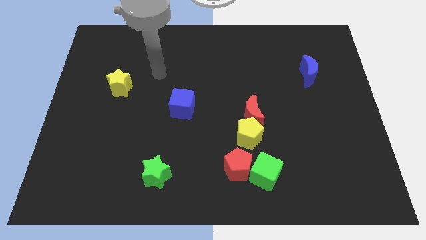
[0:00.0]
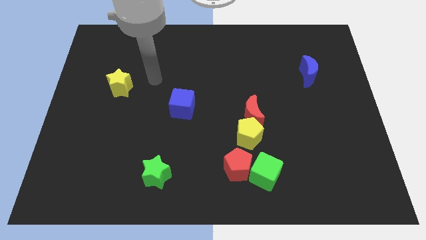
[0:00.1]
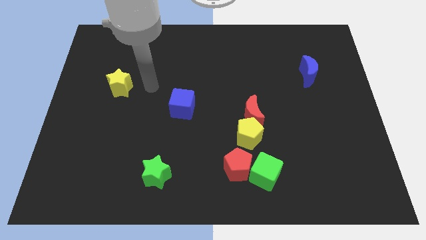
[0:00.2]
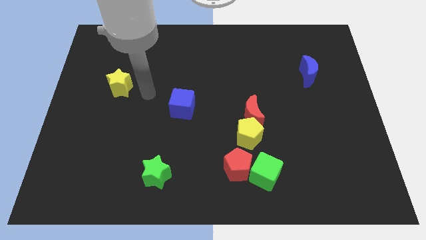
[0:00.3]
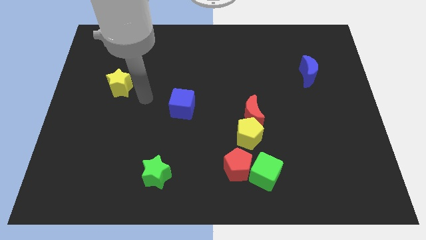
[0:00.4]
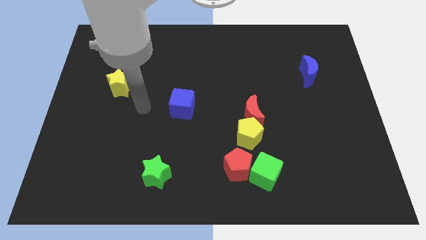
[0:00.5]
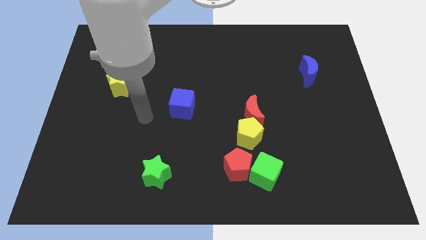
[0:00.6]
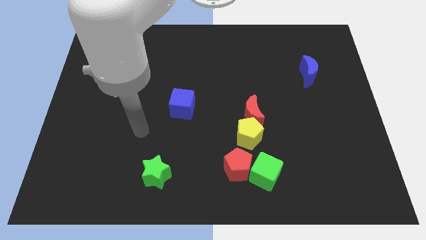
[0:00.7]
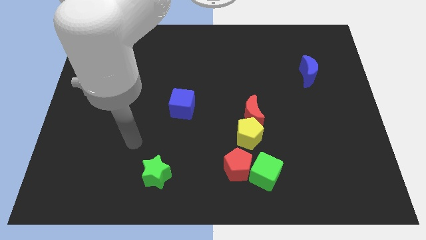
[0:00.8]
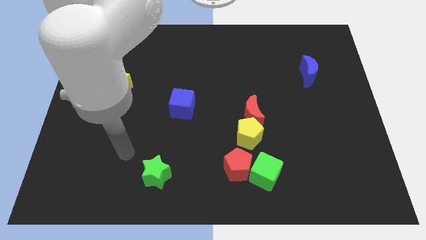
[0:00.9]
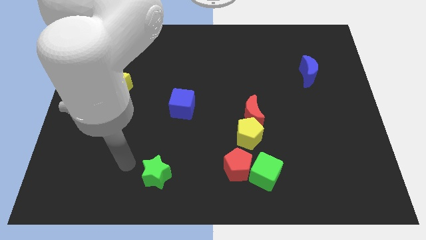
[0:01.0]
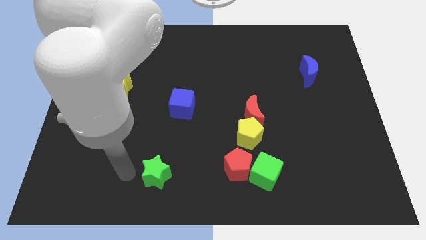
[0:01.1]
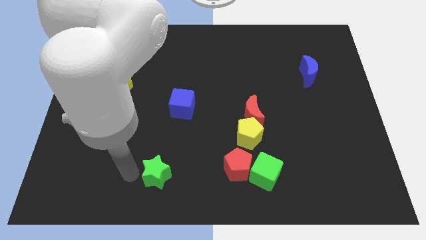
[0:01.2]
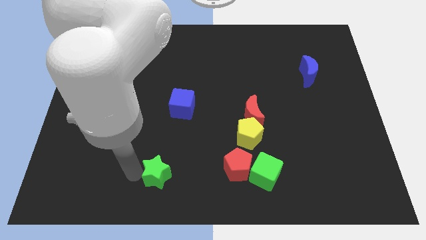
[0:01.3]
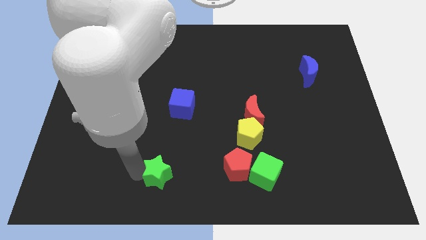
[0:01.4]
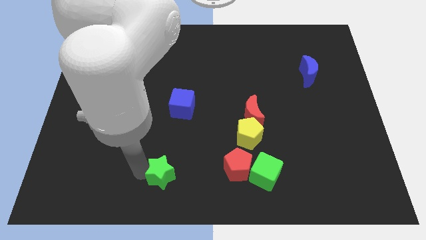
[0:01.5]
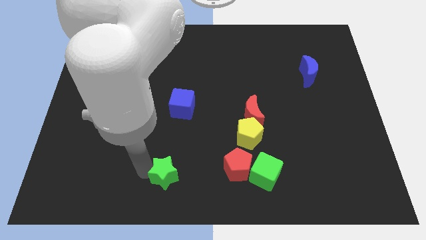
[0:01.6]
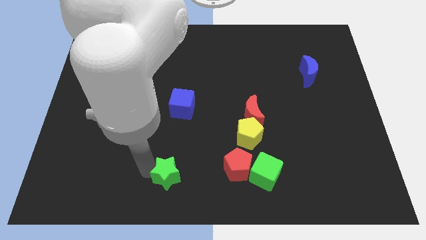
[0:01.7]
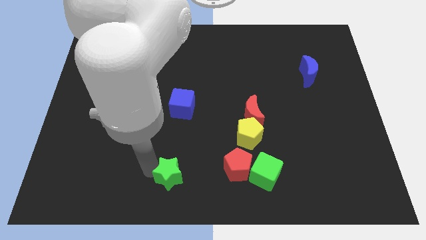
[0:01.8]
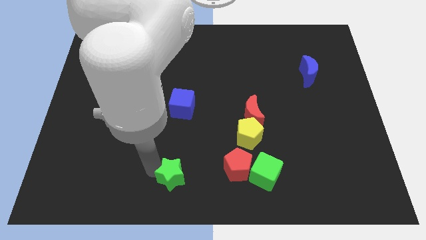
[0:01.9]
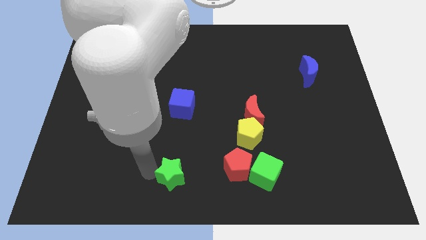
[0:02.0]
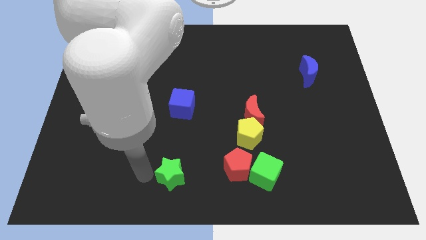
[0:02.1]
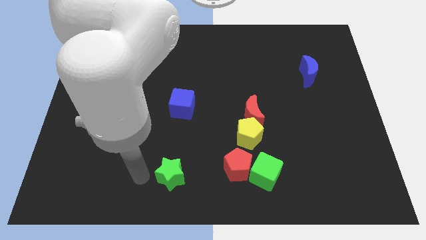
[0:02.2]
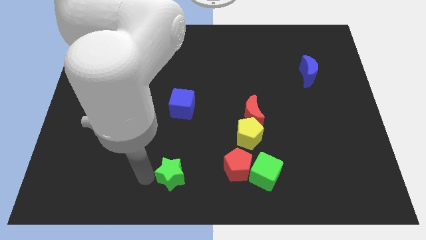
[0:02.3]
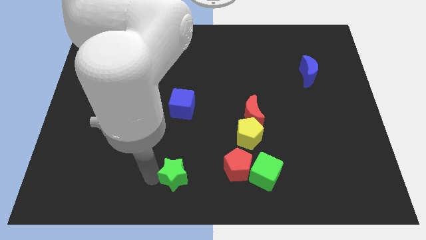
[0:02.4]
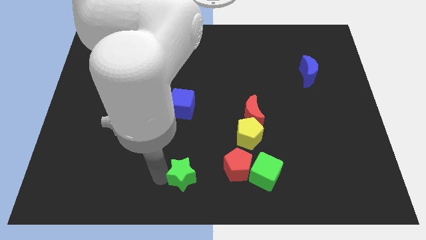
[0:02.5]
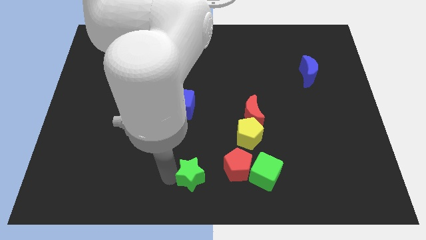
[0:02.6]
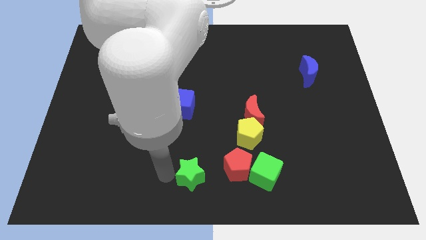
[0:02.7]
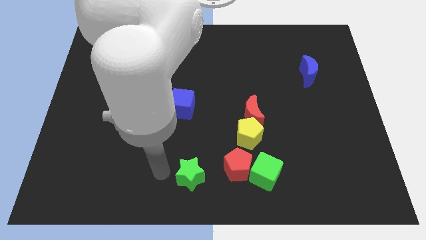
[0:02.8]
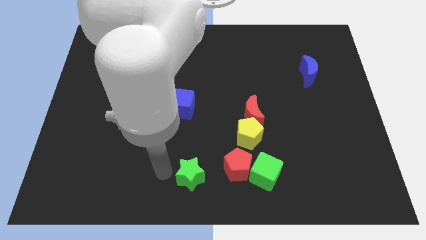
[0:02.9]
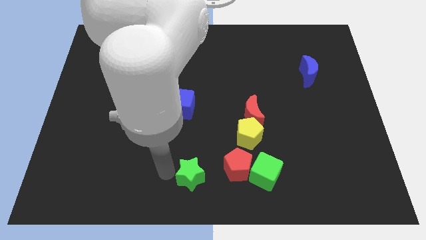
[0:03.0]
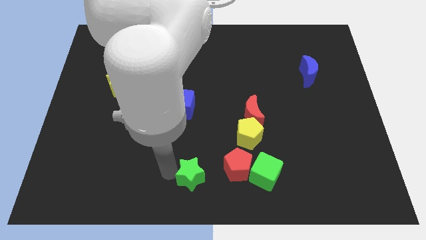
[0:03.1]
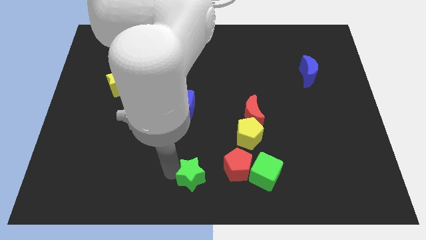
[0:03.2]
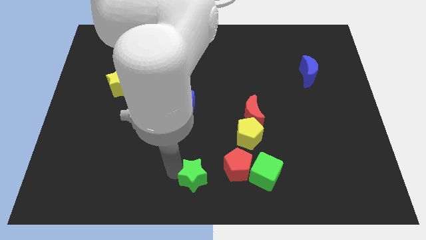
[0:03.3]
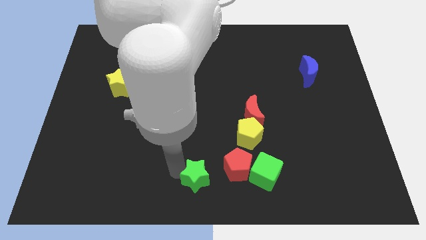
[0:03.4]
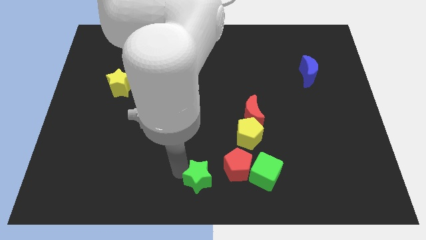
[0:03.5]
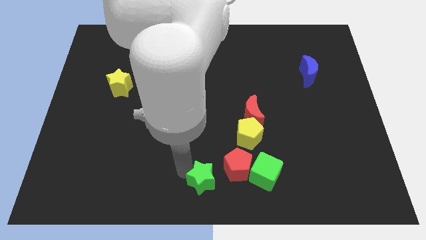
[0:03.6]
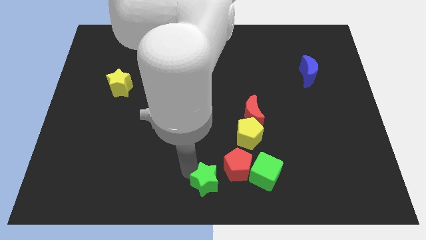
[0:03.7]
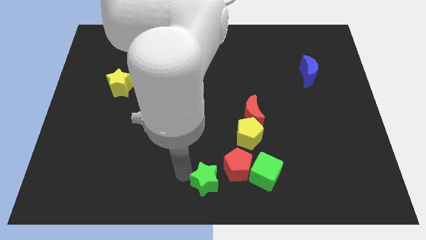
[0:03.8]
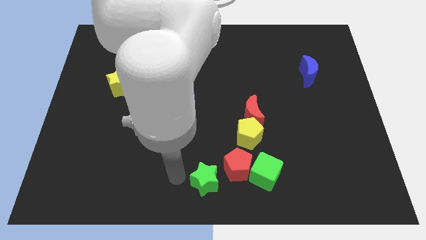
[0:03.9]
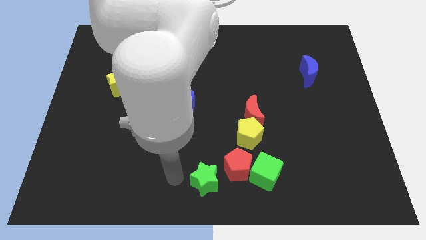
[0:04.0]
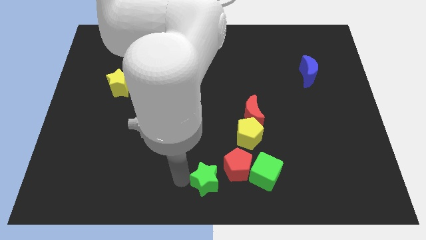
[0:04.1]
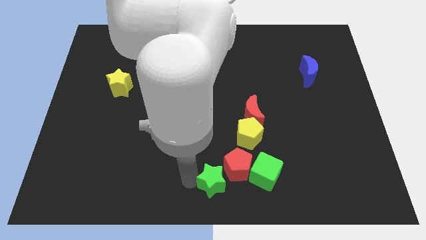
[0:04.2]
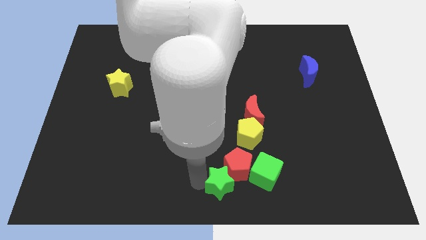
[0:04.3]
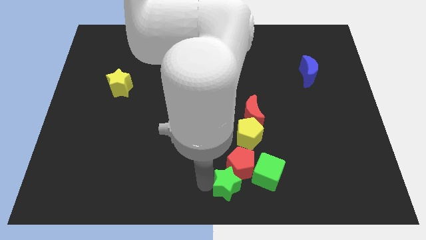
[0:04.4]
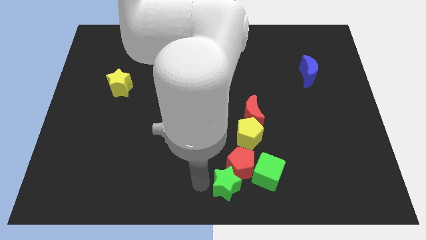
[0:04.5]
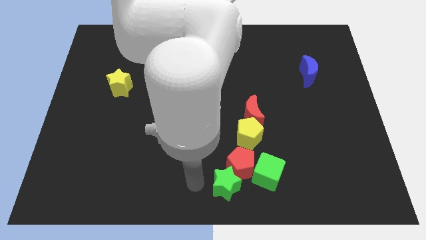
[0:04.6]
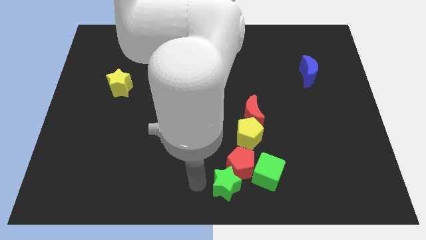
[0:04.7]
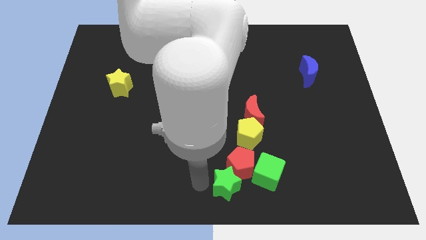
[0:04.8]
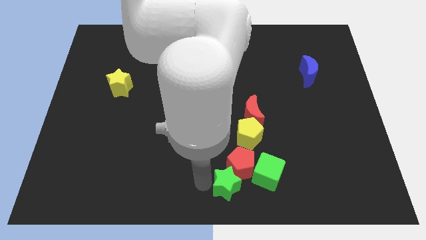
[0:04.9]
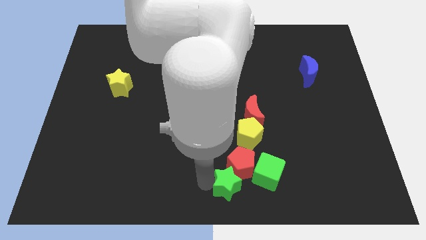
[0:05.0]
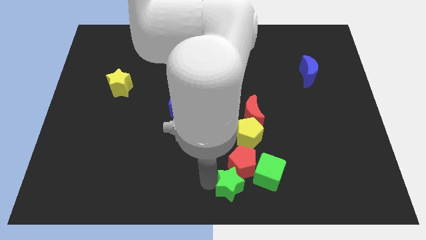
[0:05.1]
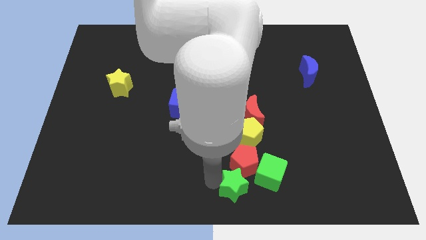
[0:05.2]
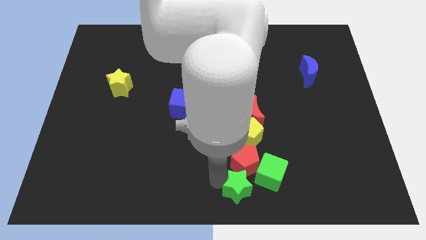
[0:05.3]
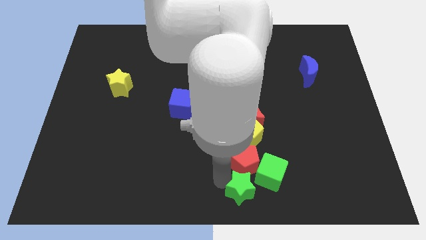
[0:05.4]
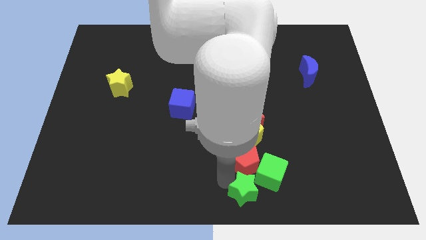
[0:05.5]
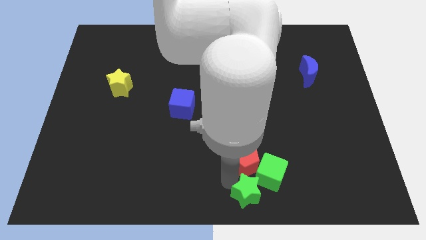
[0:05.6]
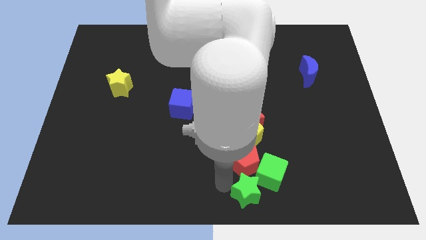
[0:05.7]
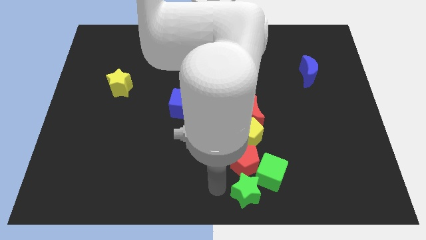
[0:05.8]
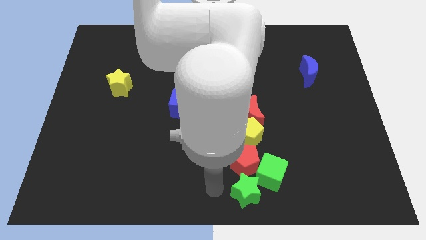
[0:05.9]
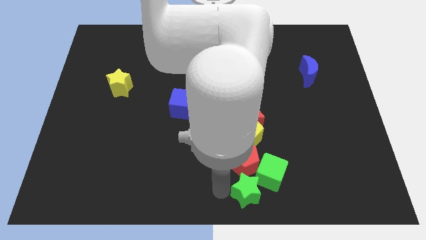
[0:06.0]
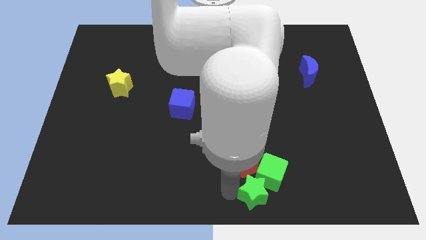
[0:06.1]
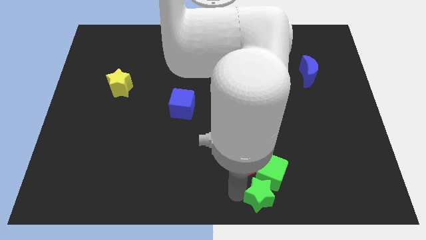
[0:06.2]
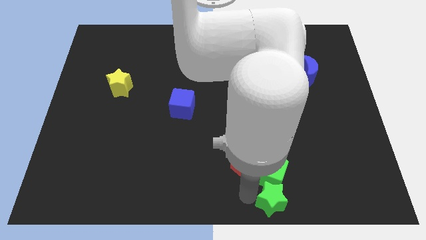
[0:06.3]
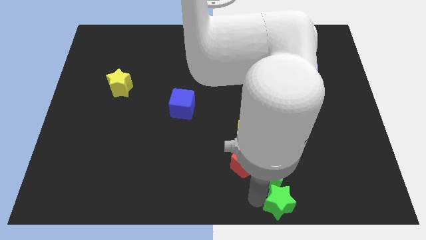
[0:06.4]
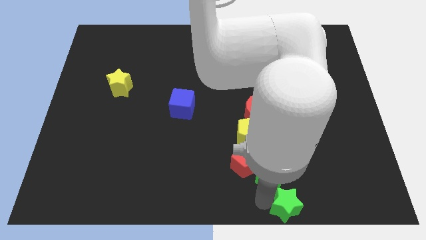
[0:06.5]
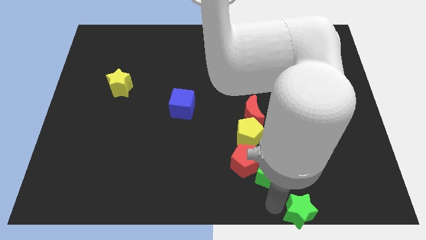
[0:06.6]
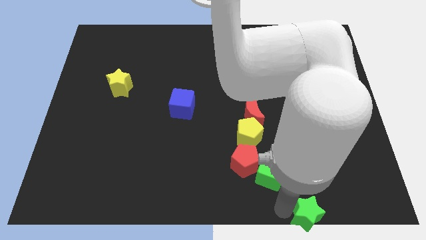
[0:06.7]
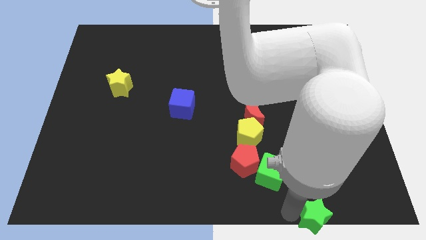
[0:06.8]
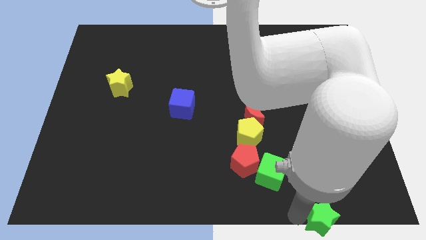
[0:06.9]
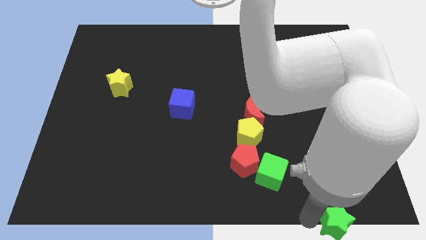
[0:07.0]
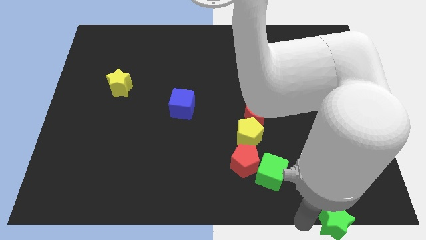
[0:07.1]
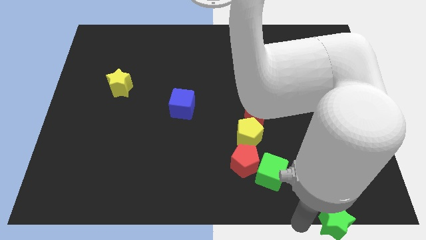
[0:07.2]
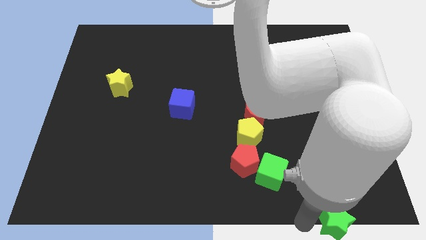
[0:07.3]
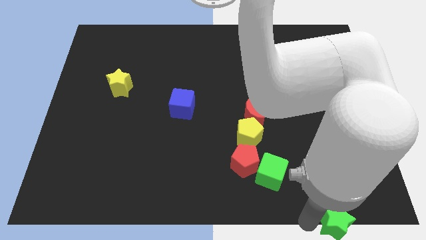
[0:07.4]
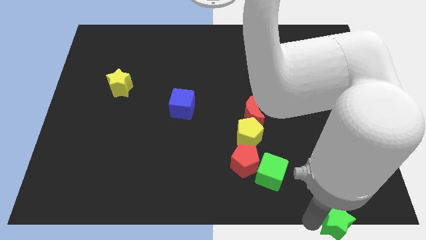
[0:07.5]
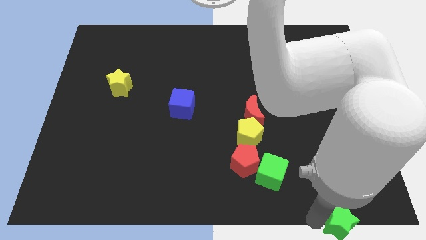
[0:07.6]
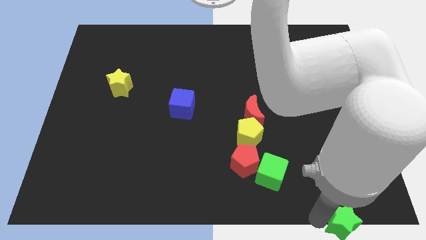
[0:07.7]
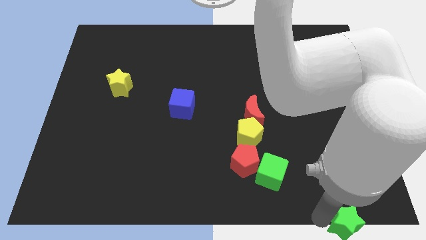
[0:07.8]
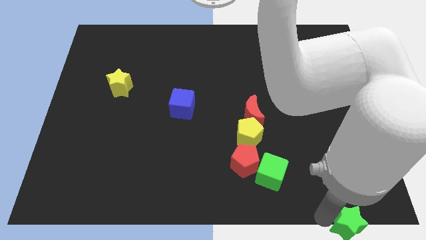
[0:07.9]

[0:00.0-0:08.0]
put the green star to the bottom right of the board
